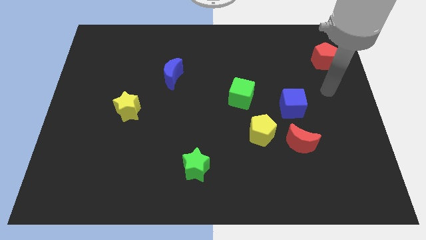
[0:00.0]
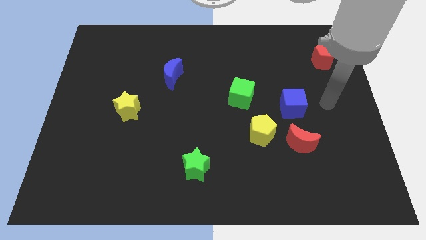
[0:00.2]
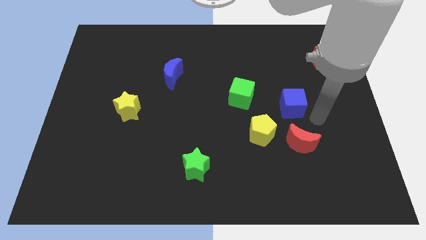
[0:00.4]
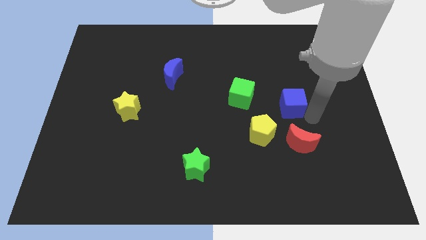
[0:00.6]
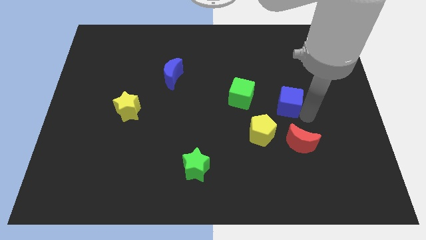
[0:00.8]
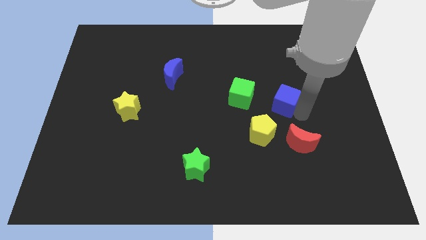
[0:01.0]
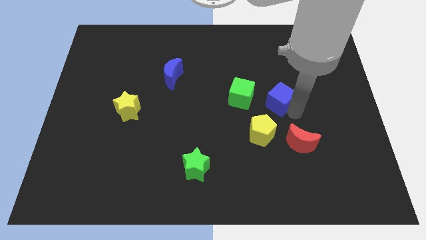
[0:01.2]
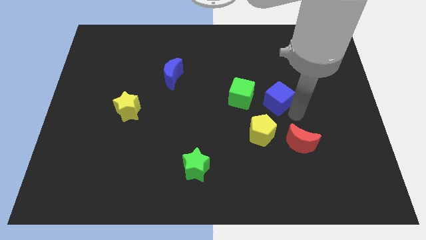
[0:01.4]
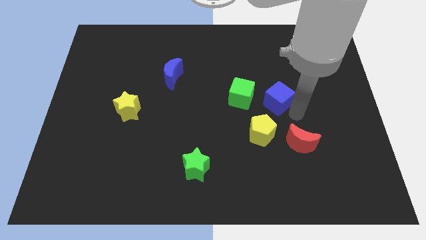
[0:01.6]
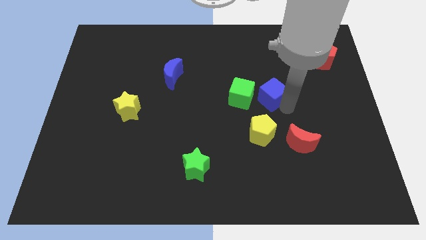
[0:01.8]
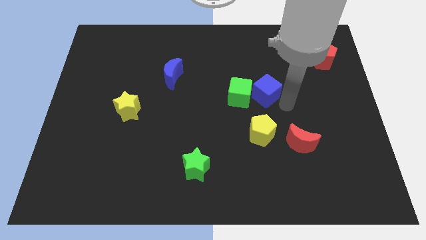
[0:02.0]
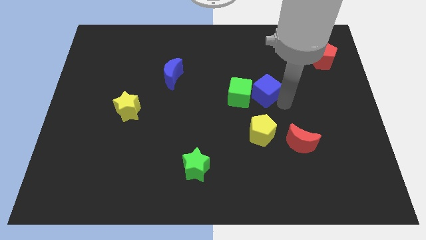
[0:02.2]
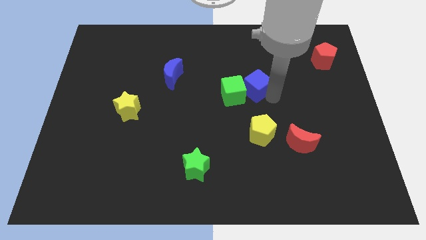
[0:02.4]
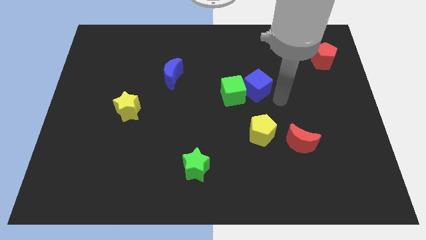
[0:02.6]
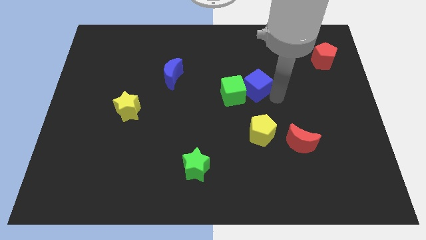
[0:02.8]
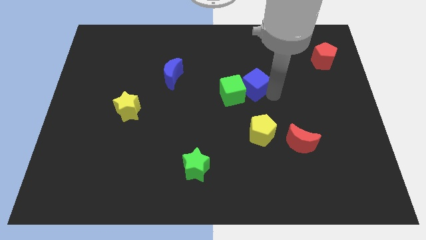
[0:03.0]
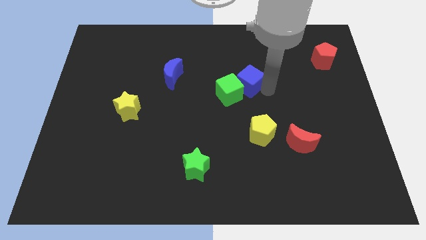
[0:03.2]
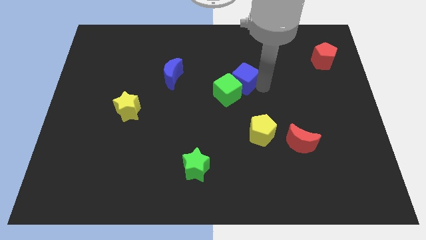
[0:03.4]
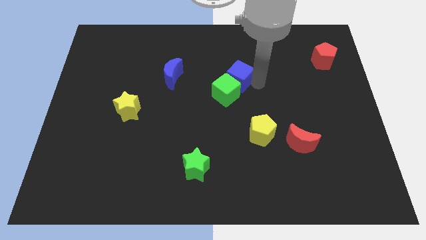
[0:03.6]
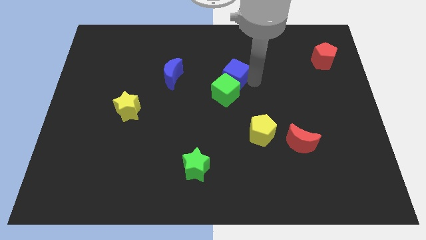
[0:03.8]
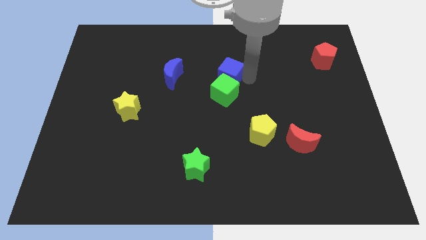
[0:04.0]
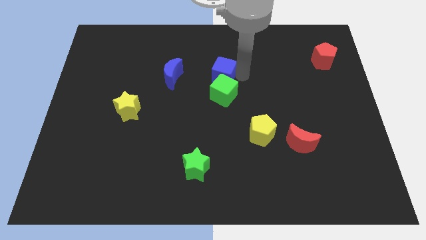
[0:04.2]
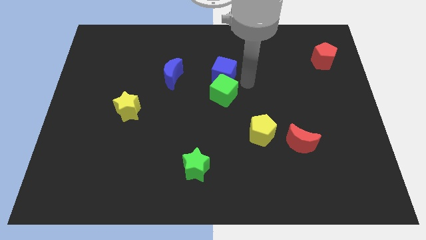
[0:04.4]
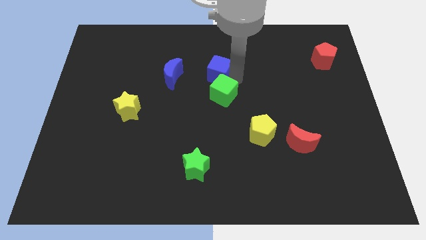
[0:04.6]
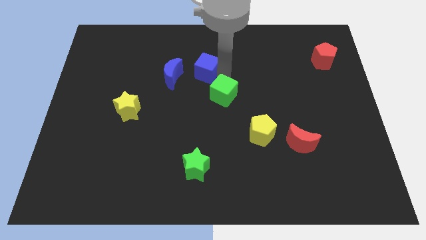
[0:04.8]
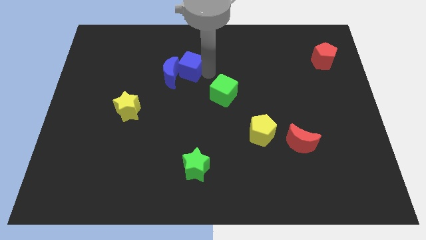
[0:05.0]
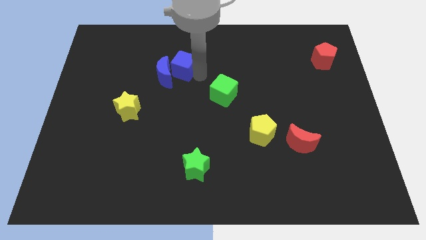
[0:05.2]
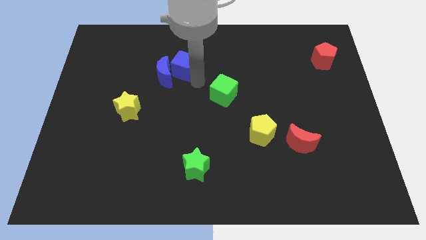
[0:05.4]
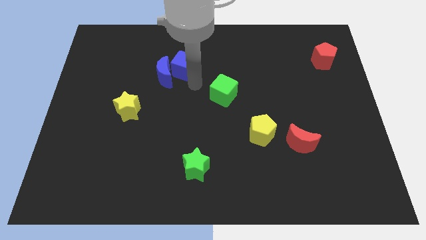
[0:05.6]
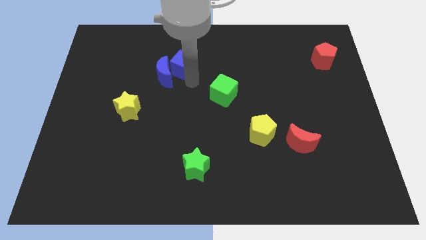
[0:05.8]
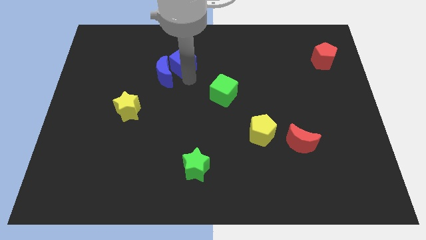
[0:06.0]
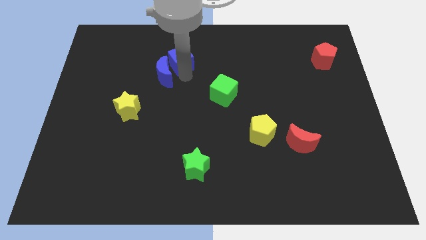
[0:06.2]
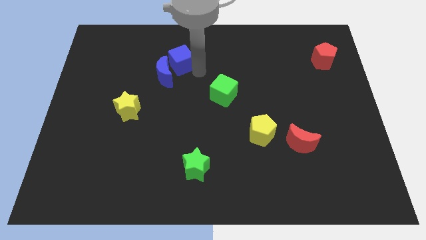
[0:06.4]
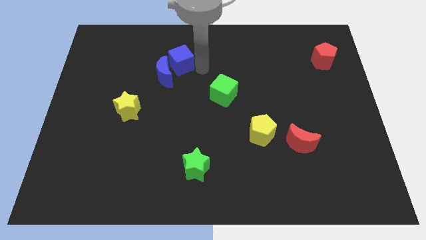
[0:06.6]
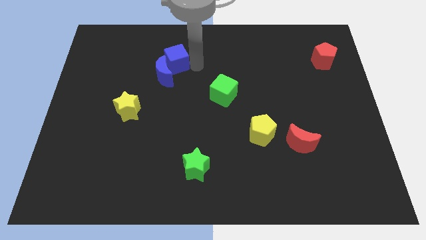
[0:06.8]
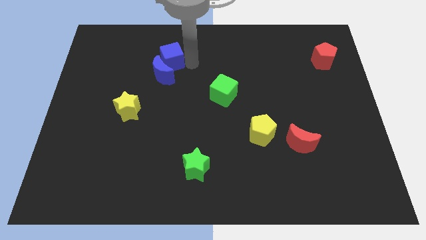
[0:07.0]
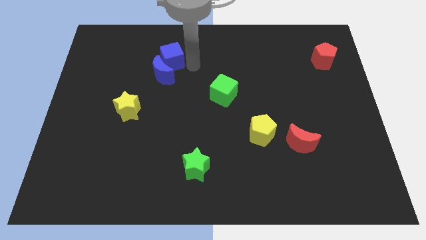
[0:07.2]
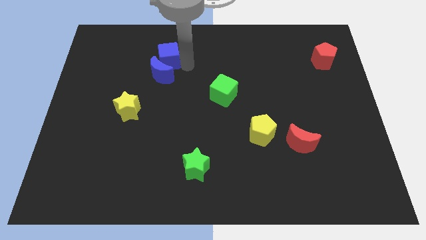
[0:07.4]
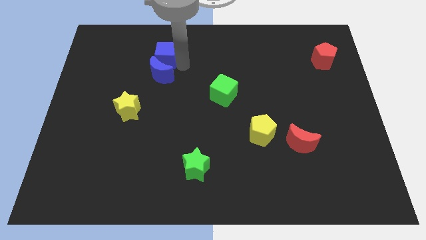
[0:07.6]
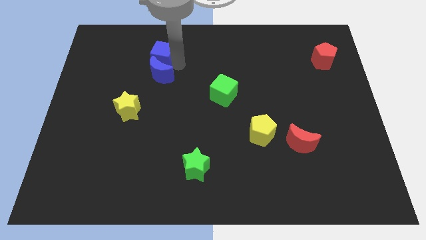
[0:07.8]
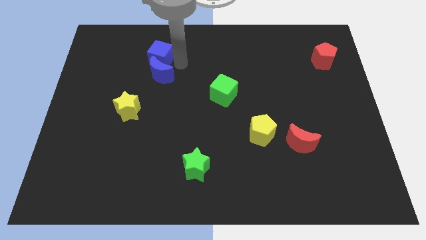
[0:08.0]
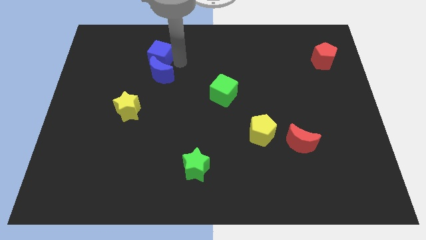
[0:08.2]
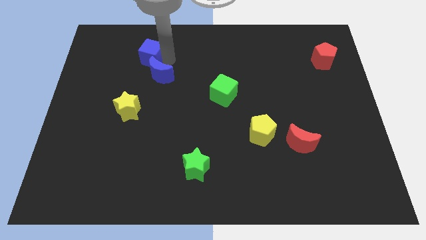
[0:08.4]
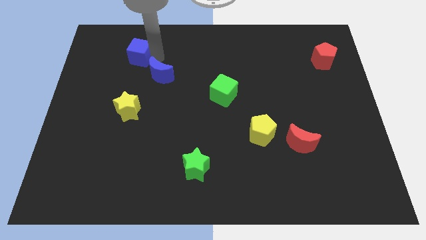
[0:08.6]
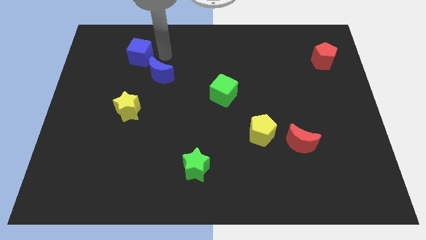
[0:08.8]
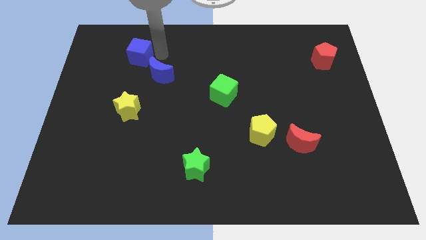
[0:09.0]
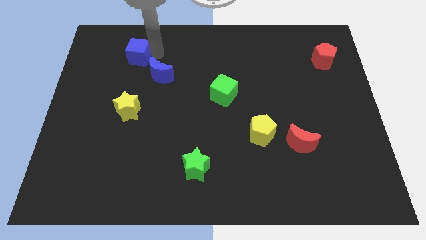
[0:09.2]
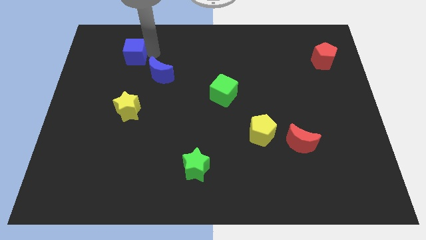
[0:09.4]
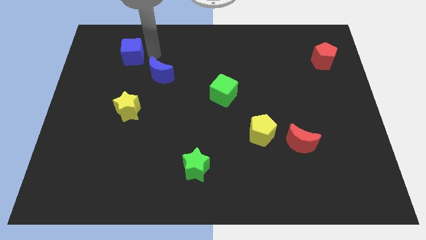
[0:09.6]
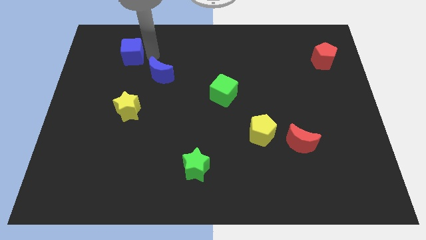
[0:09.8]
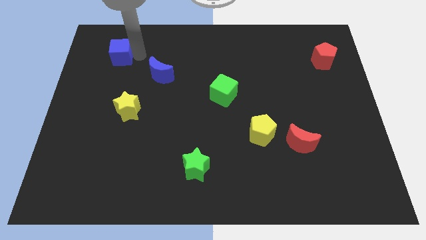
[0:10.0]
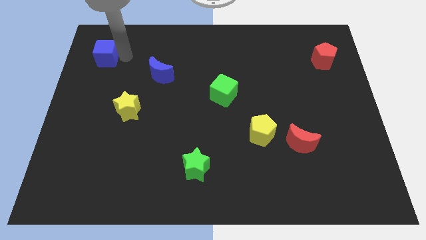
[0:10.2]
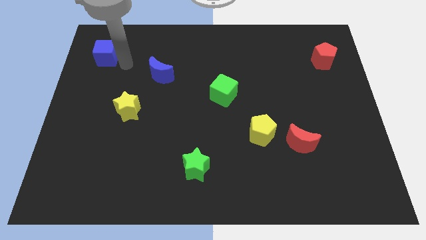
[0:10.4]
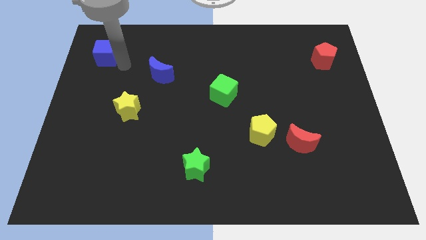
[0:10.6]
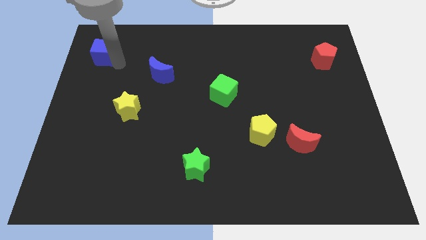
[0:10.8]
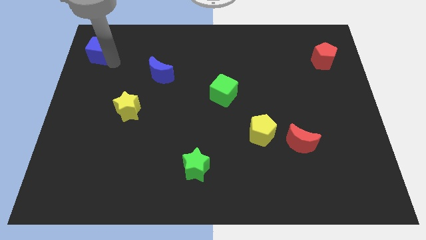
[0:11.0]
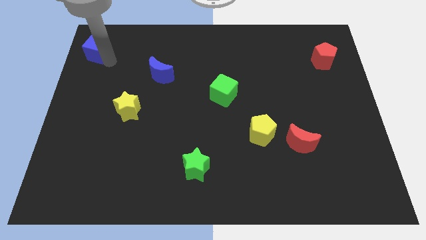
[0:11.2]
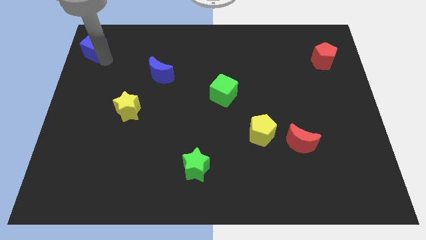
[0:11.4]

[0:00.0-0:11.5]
put the blue cube to the top left of the board

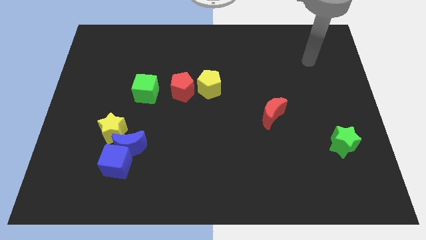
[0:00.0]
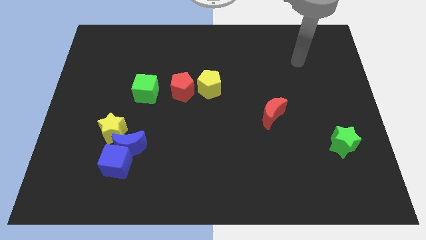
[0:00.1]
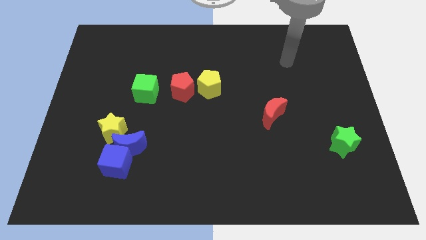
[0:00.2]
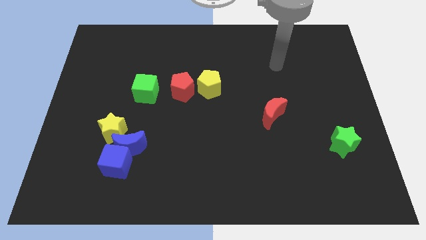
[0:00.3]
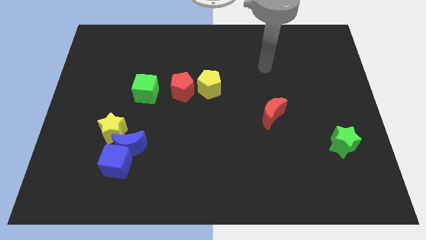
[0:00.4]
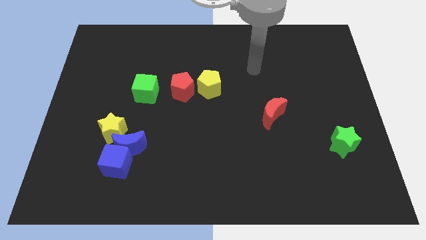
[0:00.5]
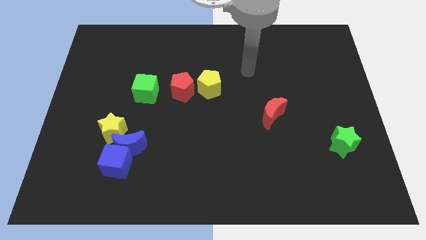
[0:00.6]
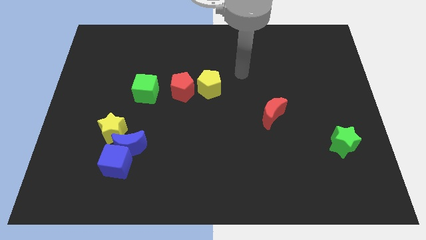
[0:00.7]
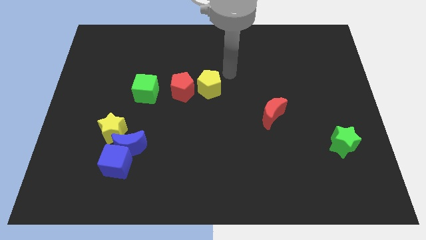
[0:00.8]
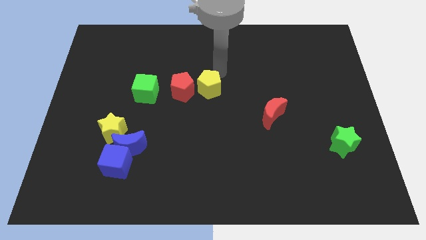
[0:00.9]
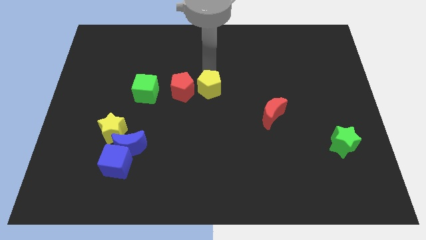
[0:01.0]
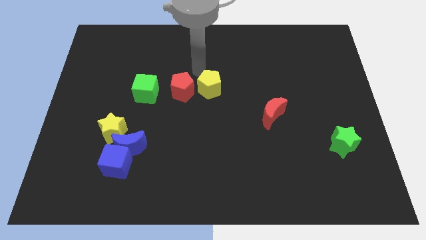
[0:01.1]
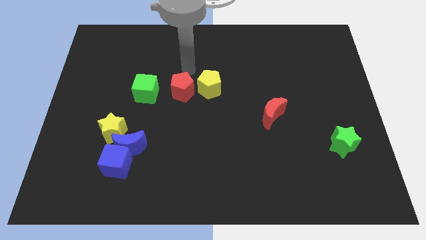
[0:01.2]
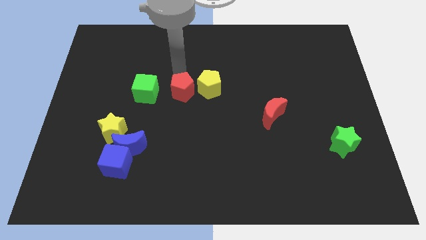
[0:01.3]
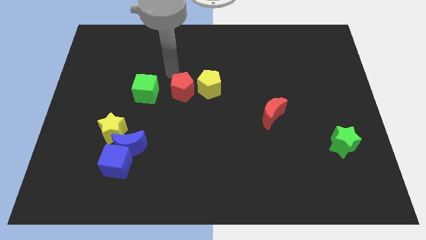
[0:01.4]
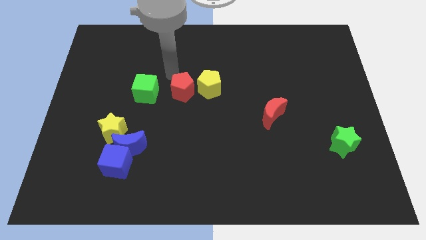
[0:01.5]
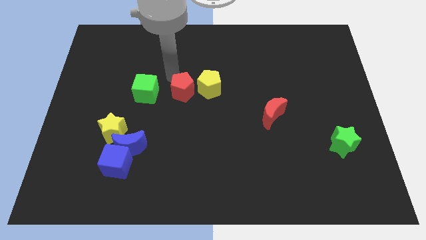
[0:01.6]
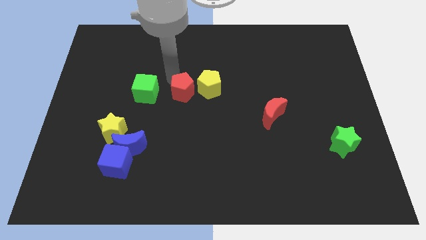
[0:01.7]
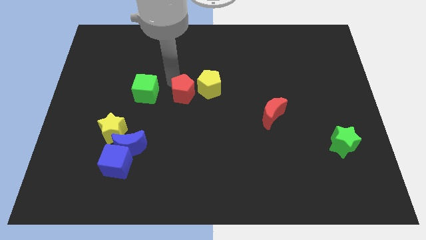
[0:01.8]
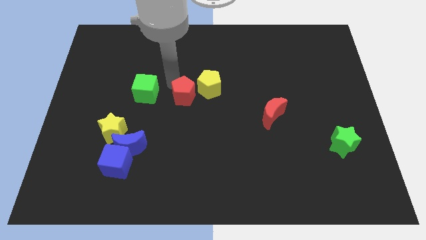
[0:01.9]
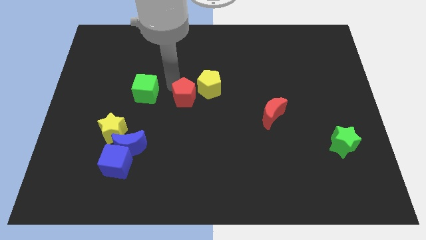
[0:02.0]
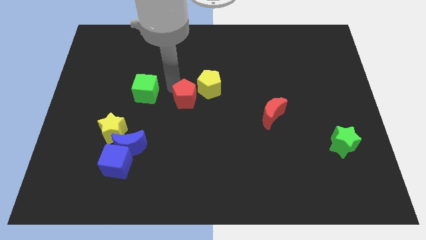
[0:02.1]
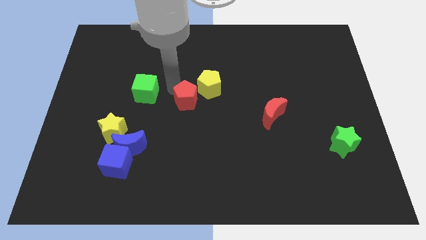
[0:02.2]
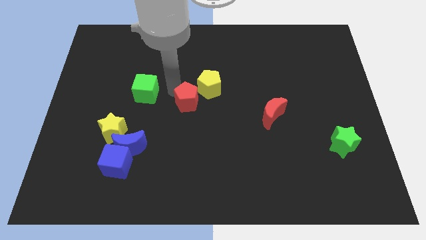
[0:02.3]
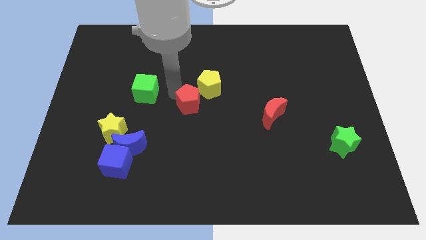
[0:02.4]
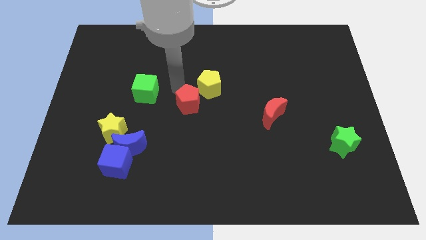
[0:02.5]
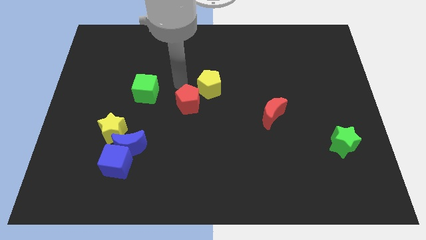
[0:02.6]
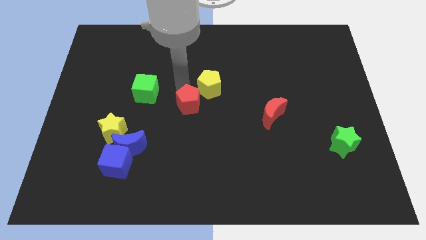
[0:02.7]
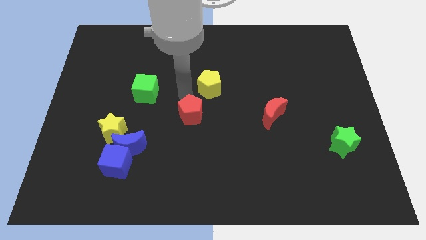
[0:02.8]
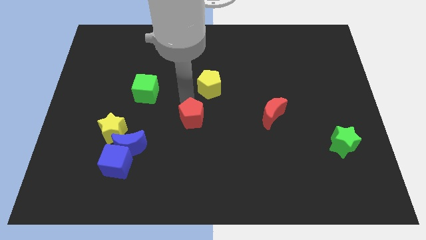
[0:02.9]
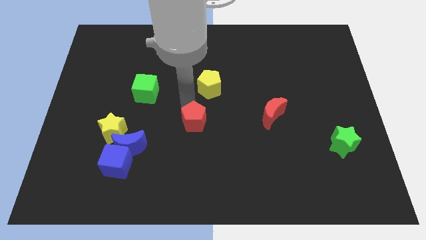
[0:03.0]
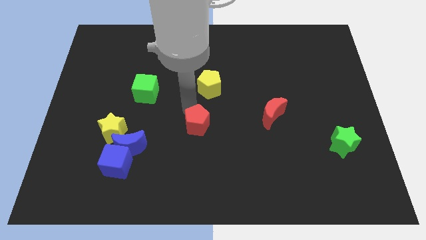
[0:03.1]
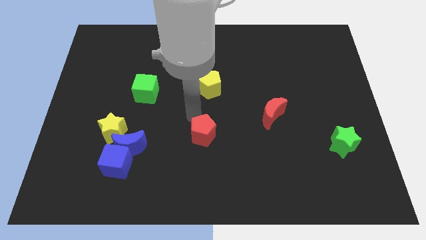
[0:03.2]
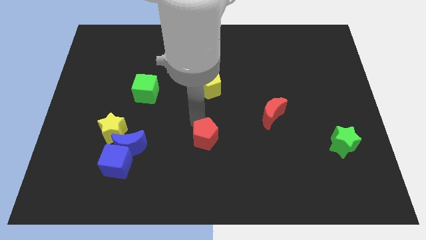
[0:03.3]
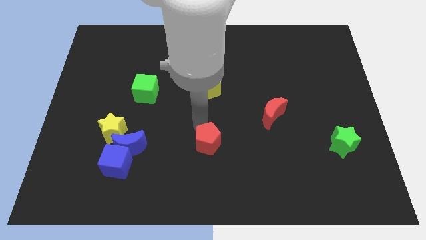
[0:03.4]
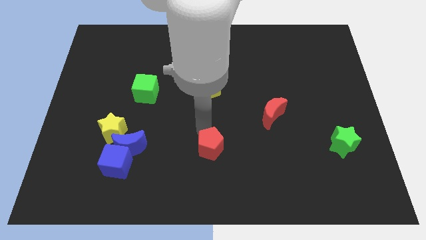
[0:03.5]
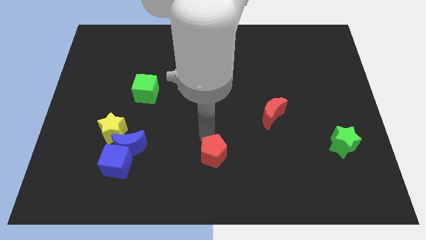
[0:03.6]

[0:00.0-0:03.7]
move the red pentagon to the bottom side
